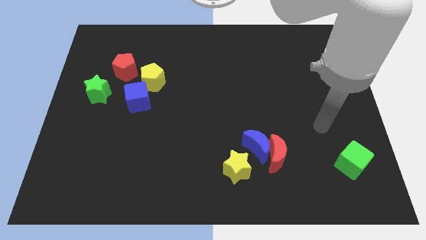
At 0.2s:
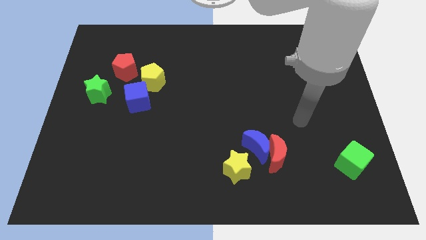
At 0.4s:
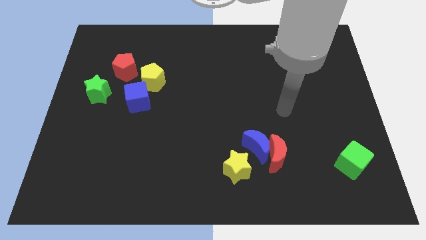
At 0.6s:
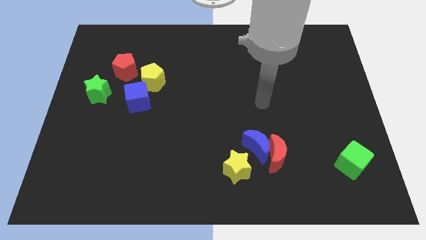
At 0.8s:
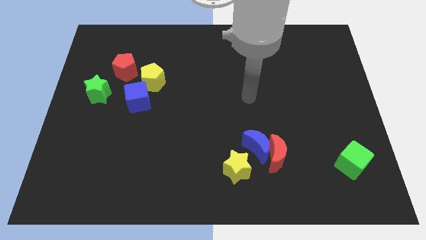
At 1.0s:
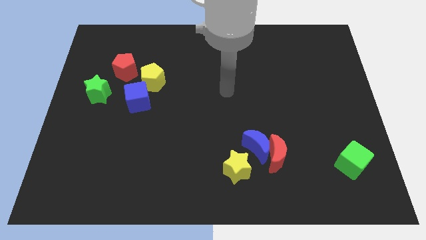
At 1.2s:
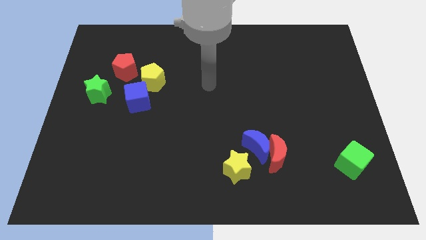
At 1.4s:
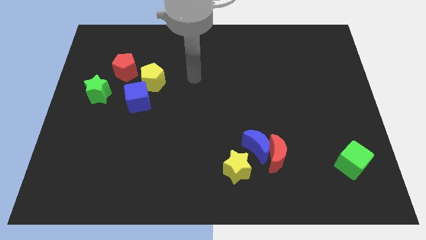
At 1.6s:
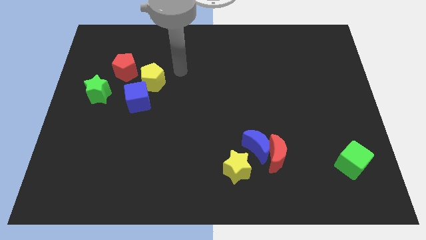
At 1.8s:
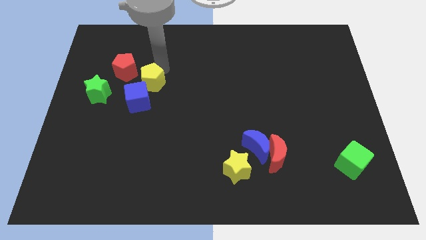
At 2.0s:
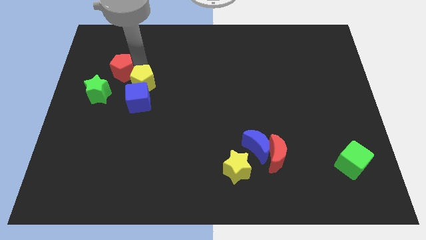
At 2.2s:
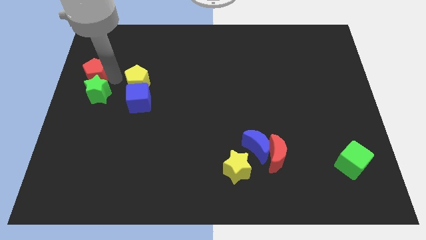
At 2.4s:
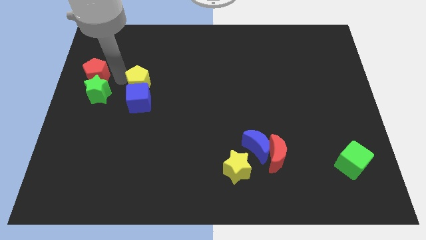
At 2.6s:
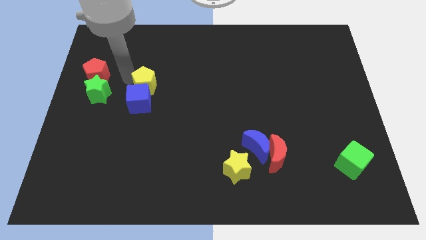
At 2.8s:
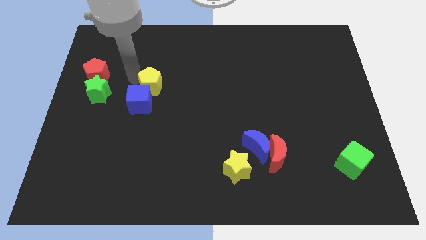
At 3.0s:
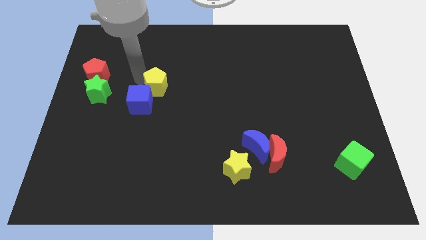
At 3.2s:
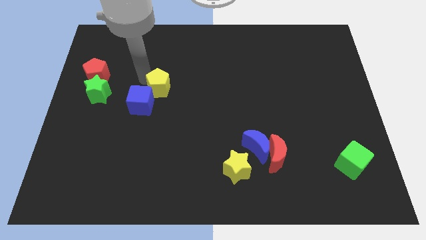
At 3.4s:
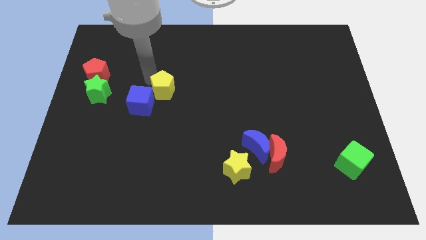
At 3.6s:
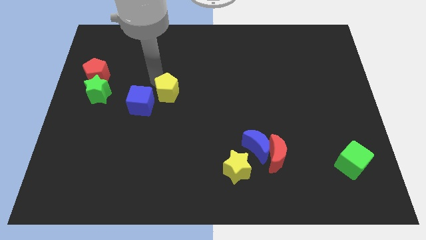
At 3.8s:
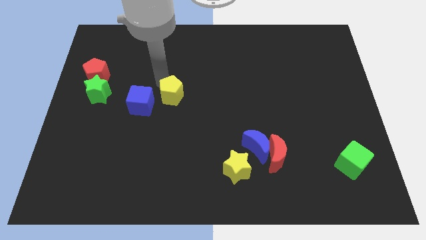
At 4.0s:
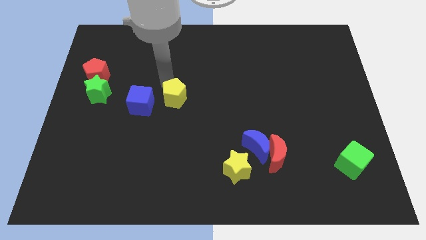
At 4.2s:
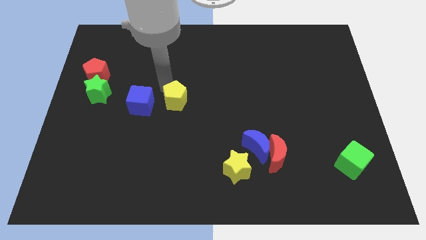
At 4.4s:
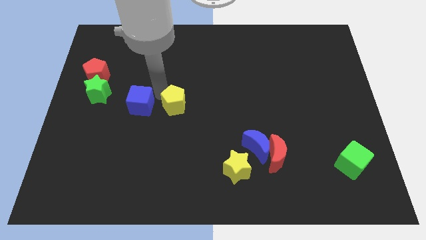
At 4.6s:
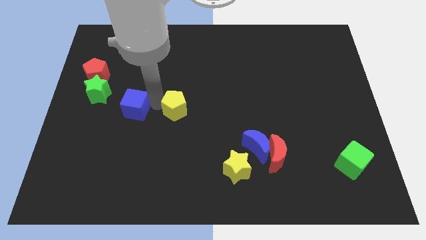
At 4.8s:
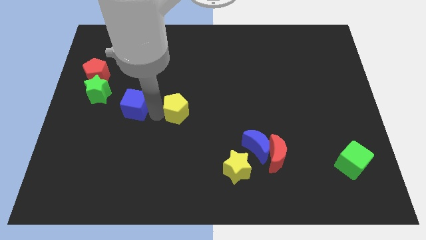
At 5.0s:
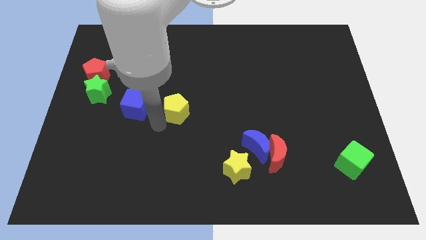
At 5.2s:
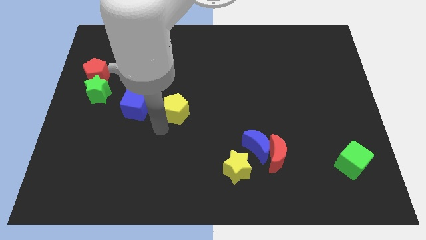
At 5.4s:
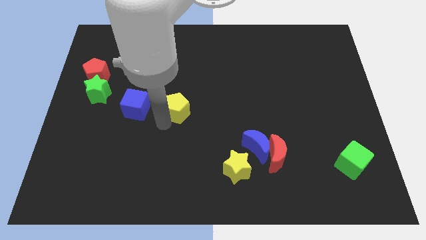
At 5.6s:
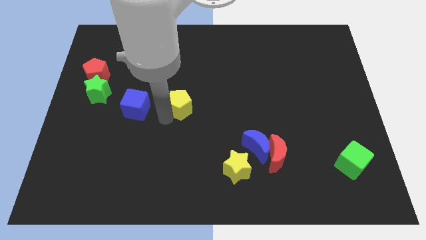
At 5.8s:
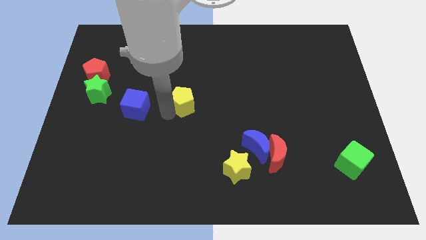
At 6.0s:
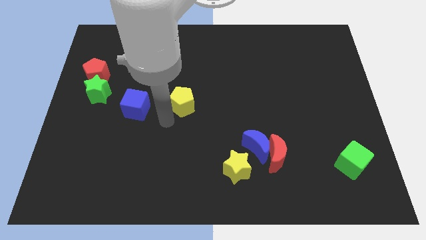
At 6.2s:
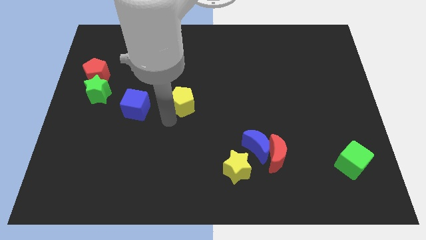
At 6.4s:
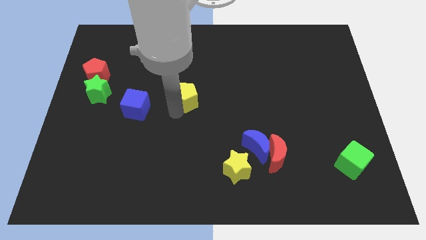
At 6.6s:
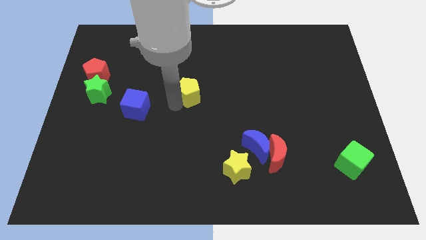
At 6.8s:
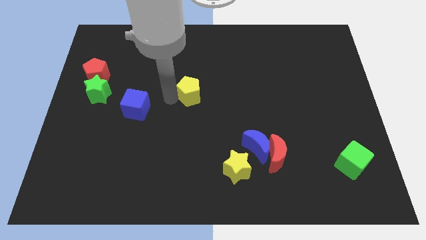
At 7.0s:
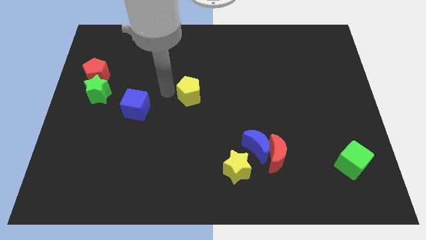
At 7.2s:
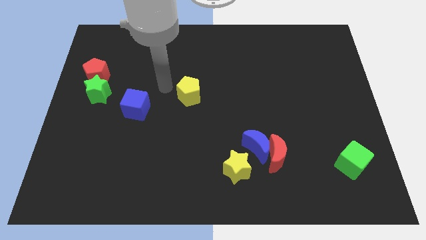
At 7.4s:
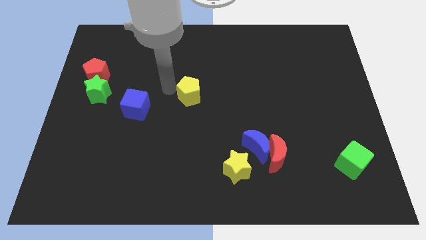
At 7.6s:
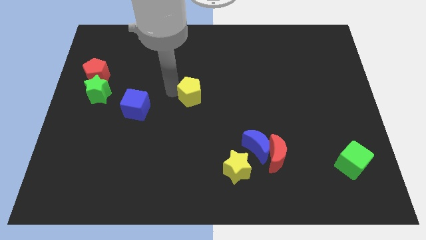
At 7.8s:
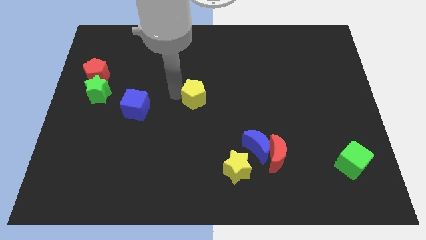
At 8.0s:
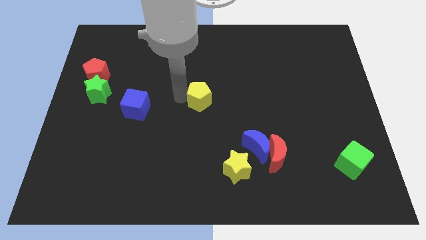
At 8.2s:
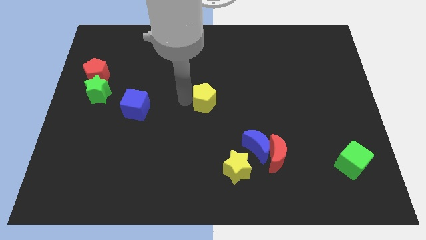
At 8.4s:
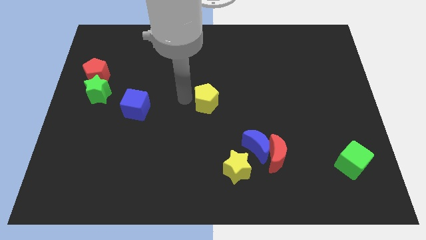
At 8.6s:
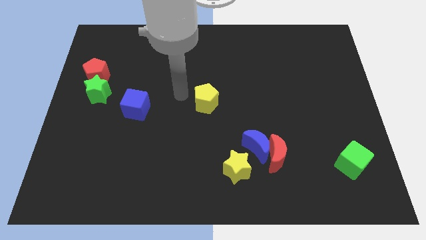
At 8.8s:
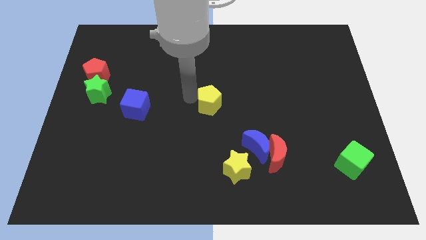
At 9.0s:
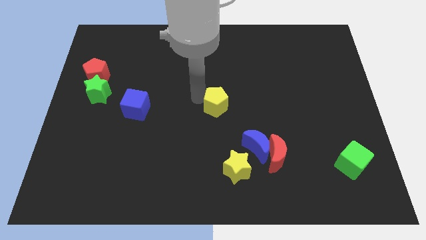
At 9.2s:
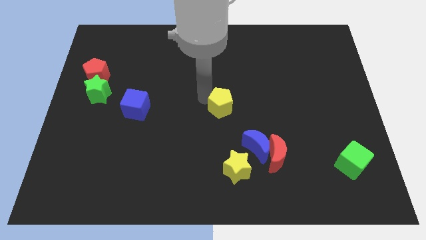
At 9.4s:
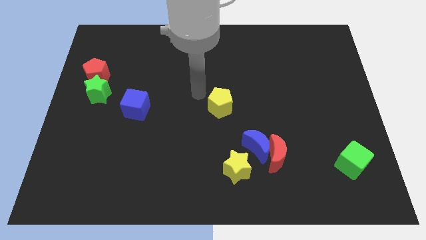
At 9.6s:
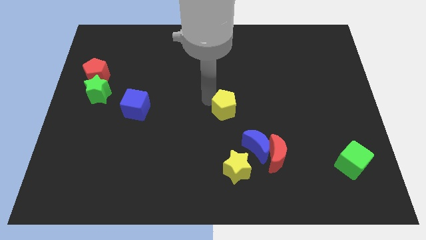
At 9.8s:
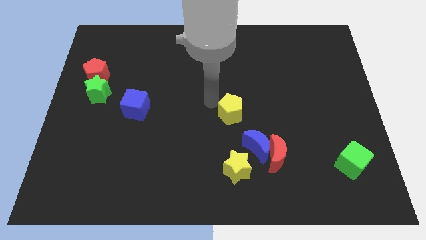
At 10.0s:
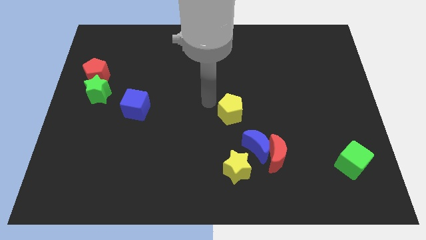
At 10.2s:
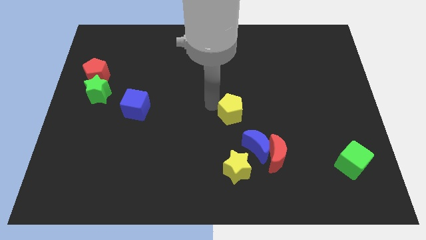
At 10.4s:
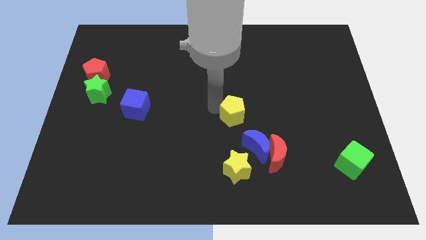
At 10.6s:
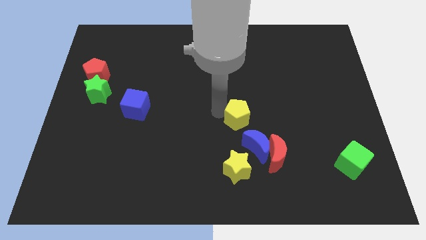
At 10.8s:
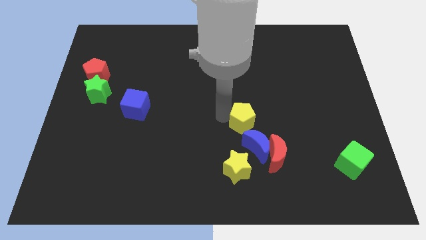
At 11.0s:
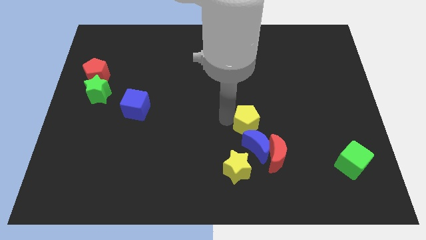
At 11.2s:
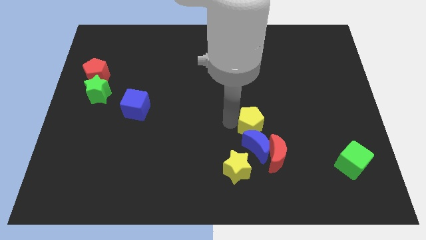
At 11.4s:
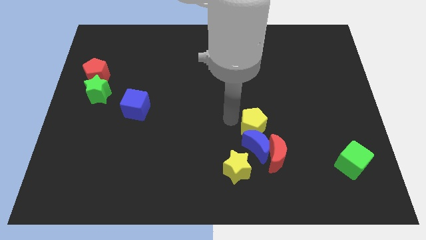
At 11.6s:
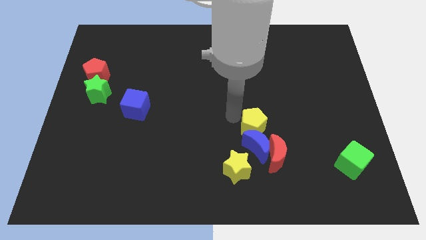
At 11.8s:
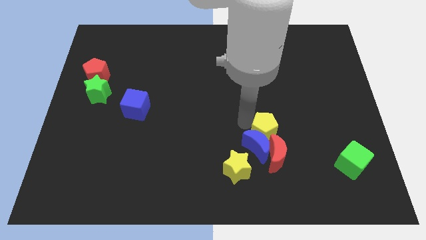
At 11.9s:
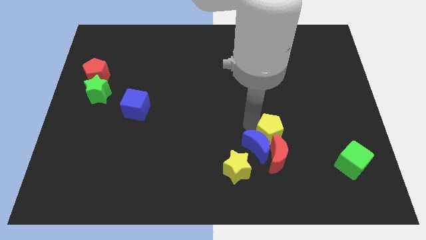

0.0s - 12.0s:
put the yellow pentagon next to the red moon

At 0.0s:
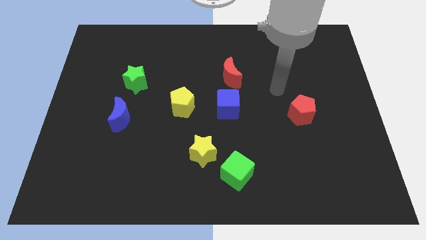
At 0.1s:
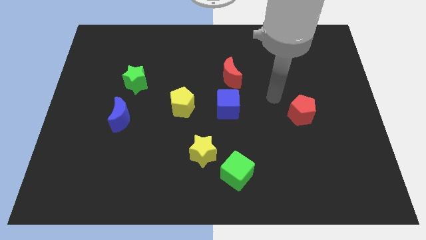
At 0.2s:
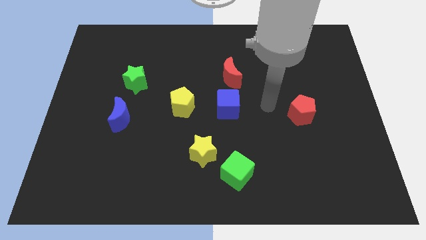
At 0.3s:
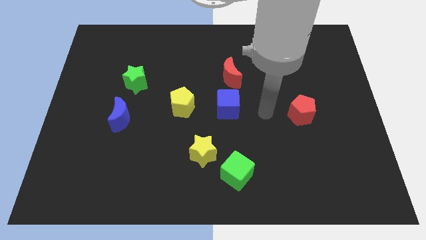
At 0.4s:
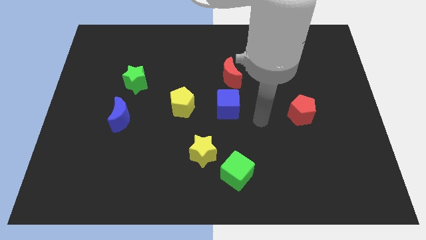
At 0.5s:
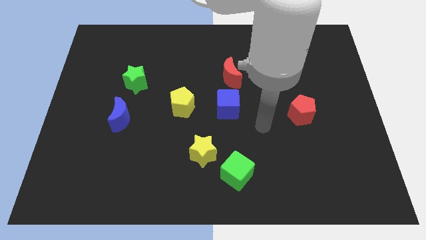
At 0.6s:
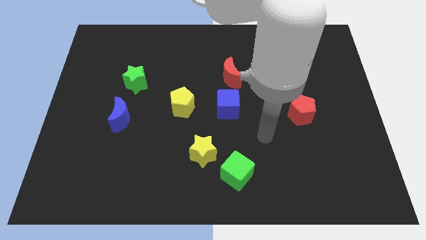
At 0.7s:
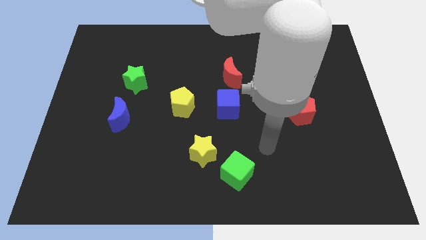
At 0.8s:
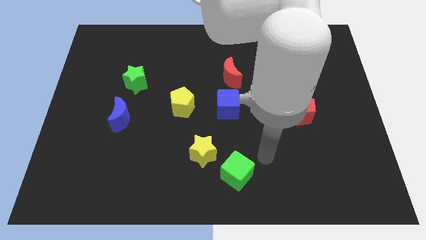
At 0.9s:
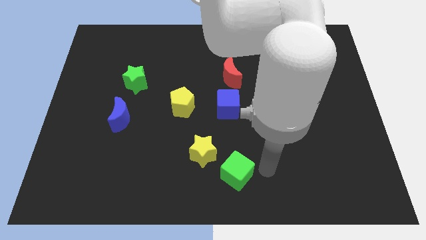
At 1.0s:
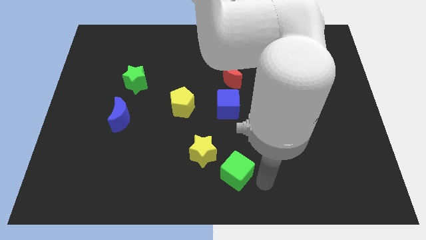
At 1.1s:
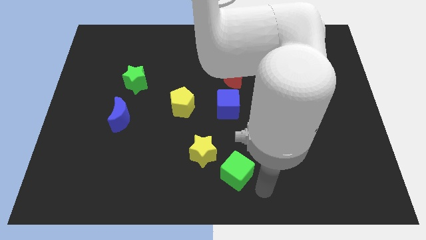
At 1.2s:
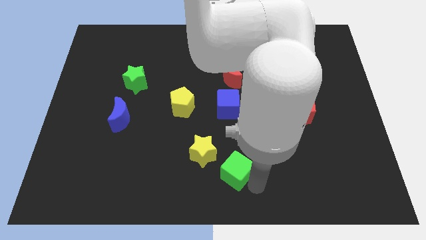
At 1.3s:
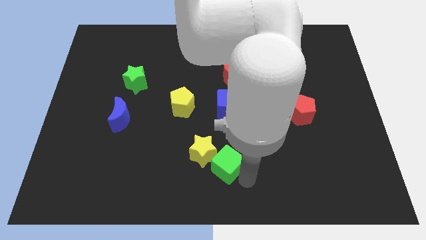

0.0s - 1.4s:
move the green cube to the yellow star

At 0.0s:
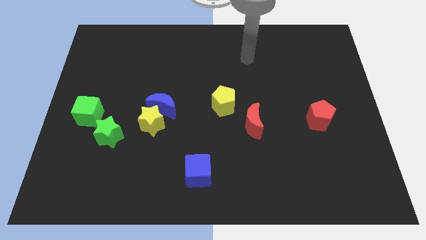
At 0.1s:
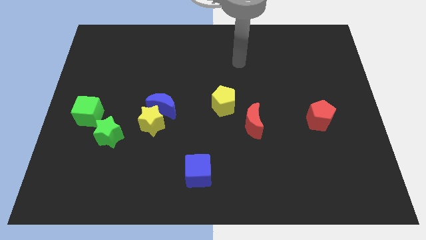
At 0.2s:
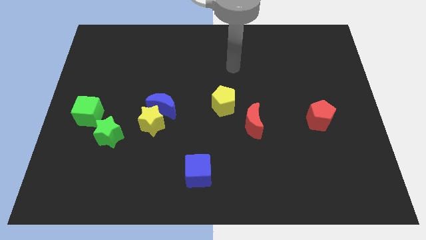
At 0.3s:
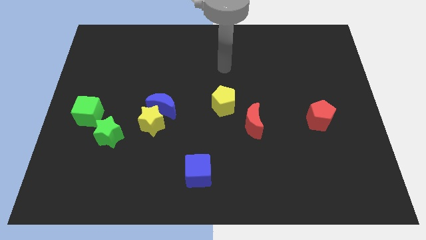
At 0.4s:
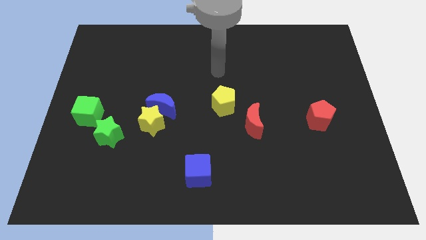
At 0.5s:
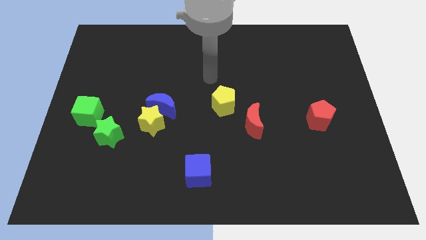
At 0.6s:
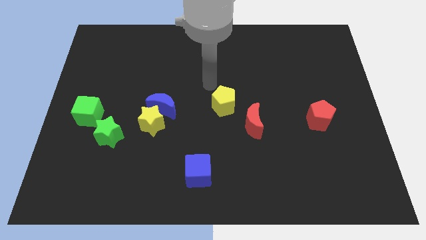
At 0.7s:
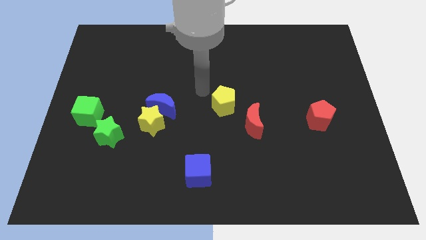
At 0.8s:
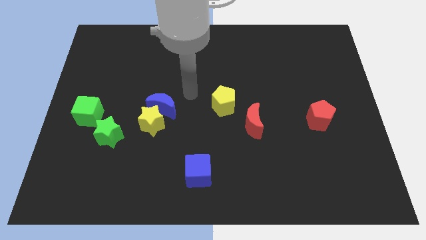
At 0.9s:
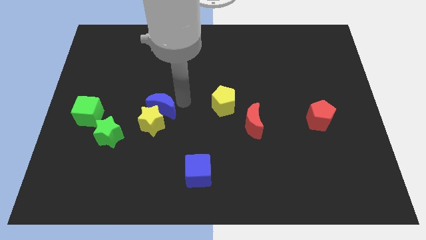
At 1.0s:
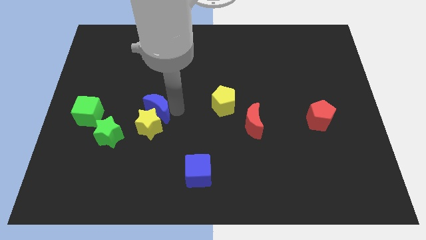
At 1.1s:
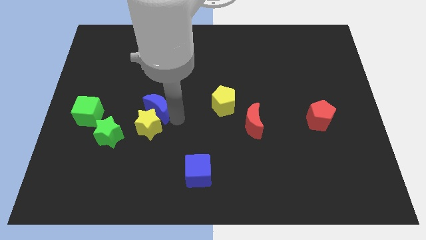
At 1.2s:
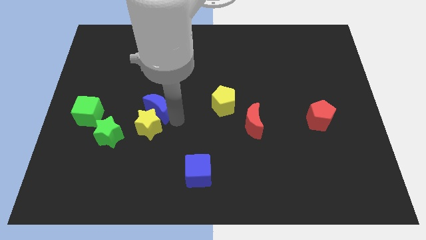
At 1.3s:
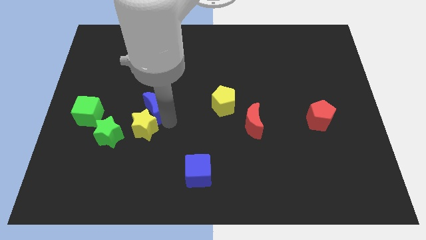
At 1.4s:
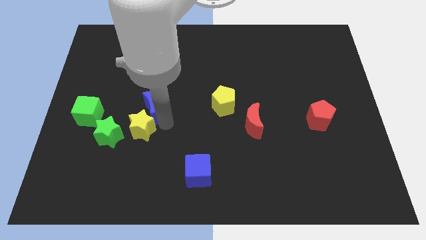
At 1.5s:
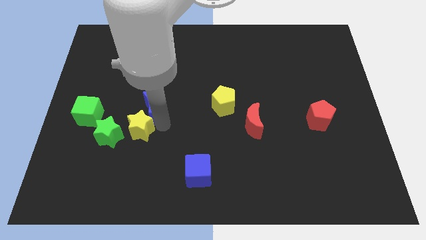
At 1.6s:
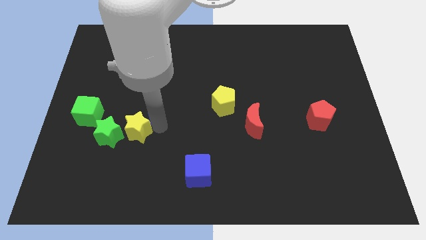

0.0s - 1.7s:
put the yellow star to the green star
